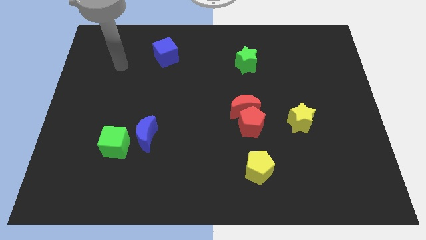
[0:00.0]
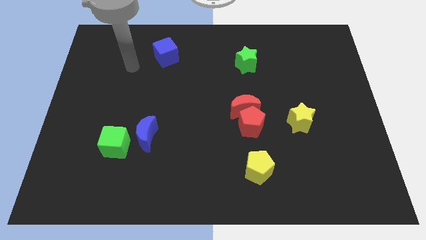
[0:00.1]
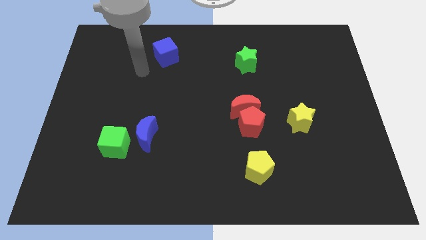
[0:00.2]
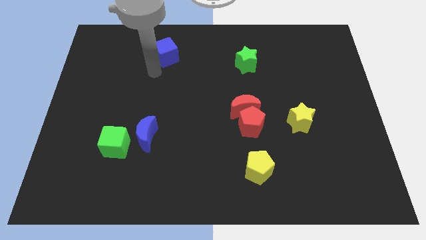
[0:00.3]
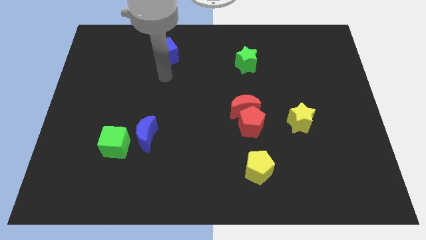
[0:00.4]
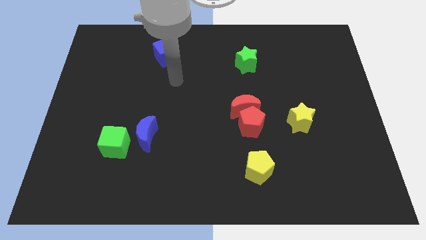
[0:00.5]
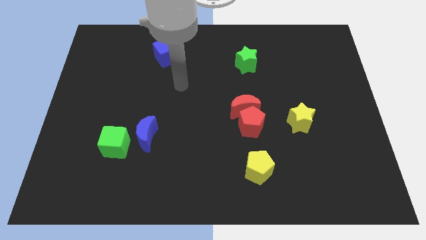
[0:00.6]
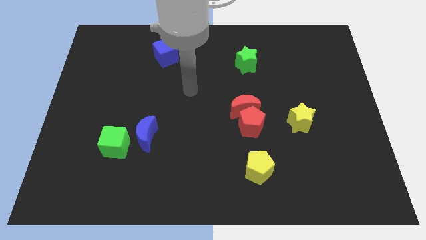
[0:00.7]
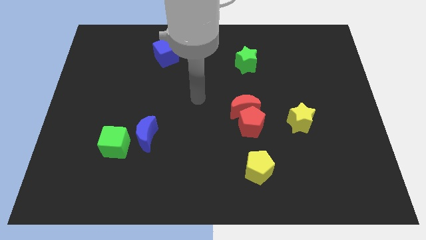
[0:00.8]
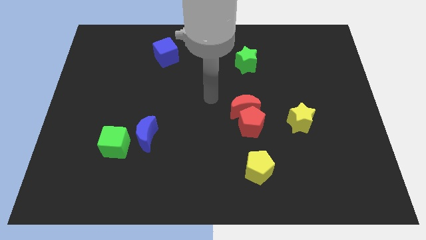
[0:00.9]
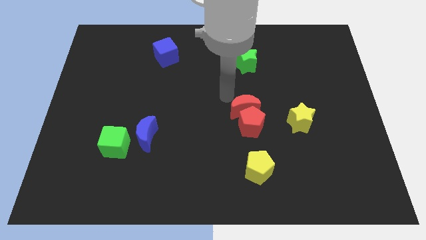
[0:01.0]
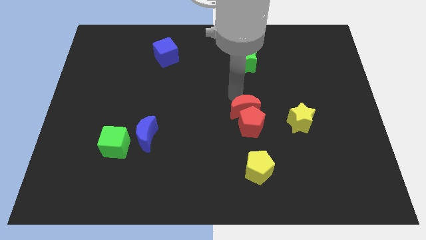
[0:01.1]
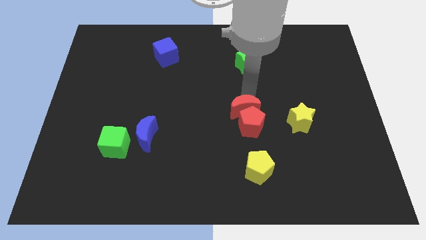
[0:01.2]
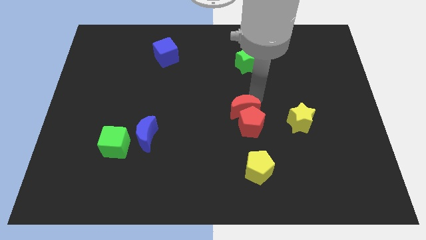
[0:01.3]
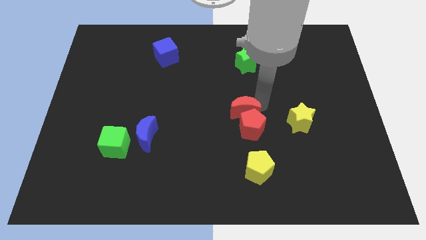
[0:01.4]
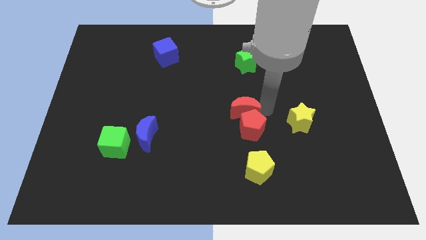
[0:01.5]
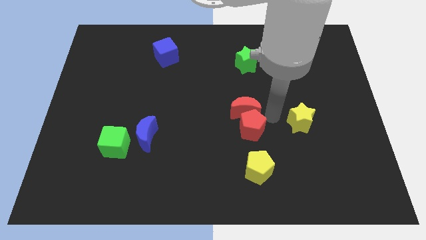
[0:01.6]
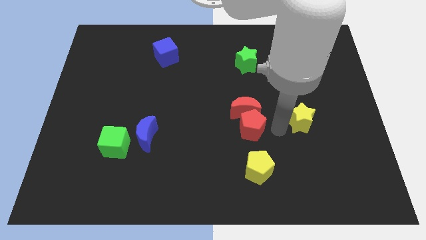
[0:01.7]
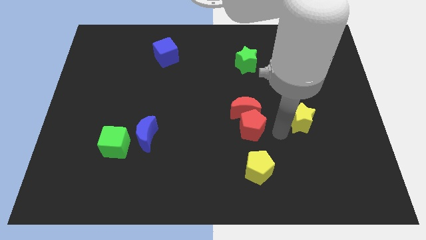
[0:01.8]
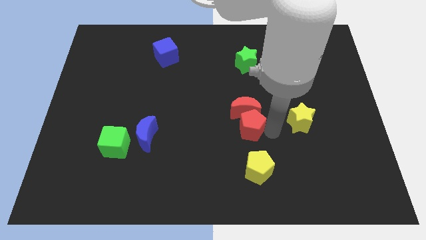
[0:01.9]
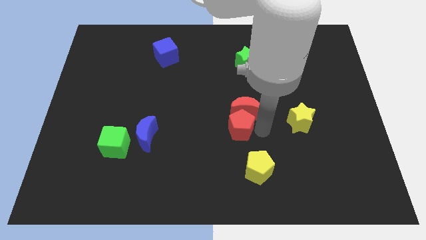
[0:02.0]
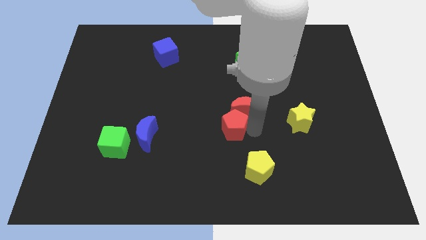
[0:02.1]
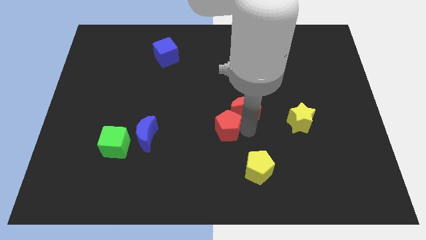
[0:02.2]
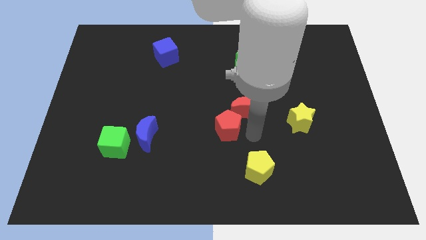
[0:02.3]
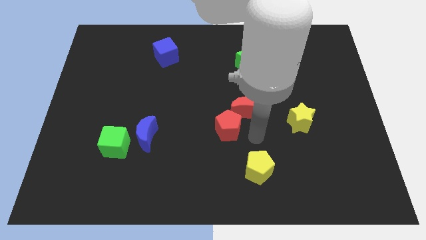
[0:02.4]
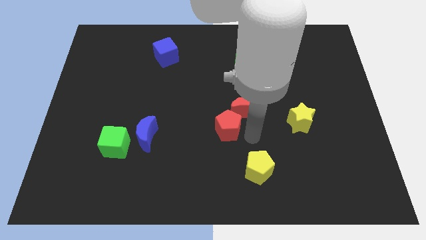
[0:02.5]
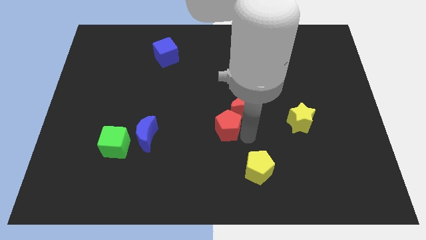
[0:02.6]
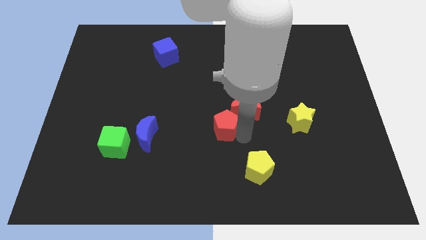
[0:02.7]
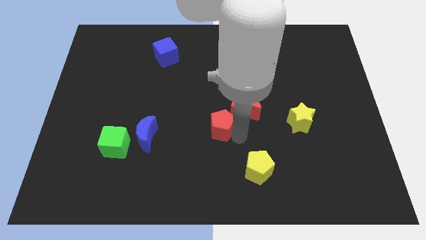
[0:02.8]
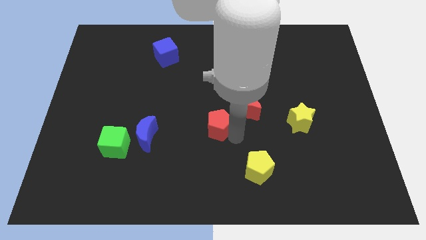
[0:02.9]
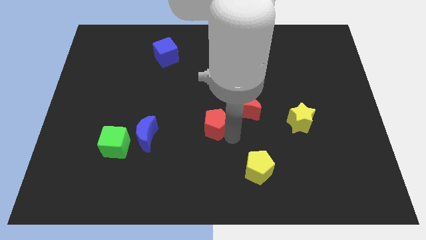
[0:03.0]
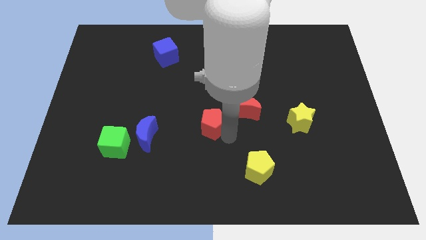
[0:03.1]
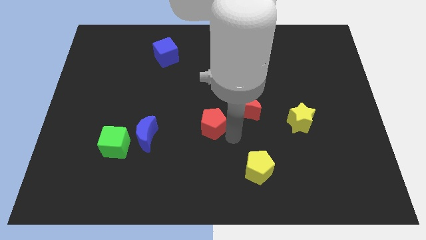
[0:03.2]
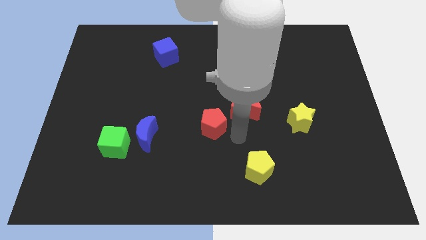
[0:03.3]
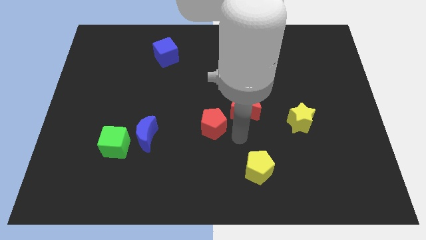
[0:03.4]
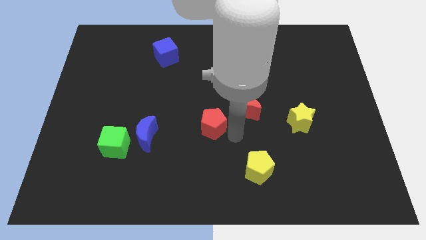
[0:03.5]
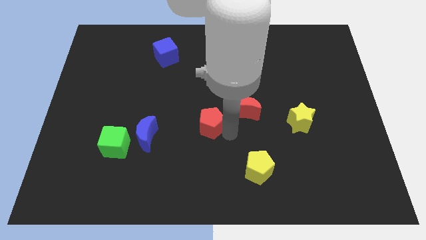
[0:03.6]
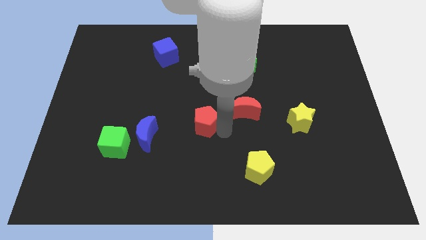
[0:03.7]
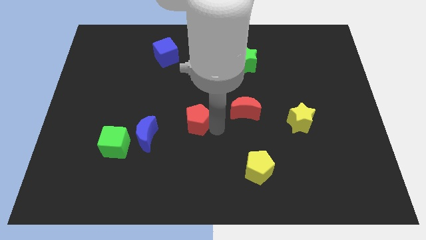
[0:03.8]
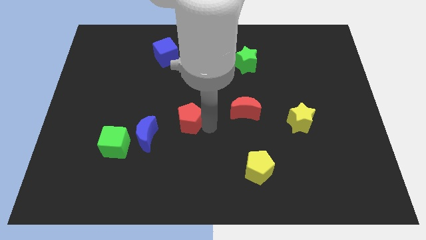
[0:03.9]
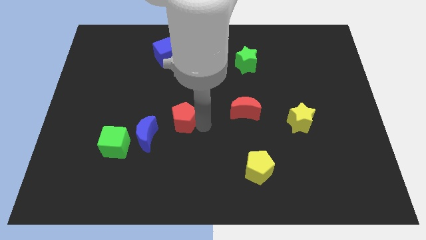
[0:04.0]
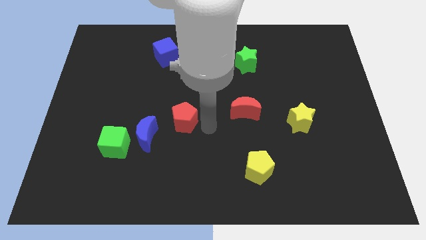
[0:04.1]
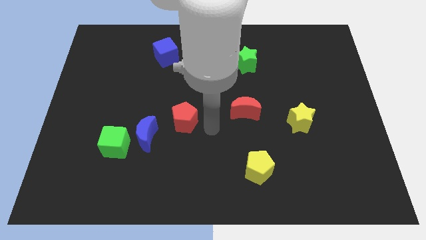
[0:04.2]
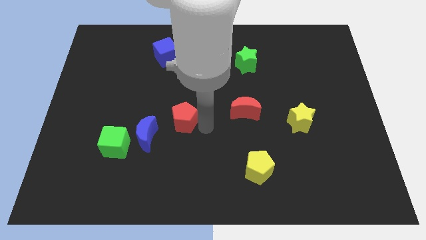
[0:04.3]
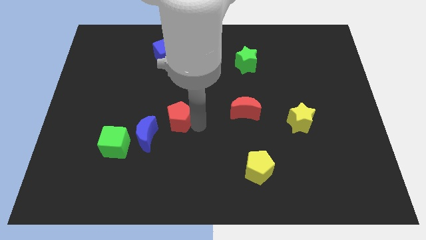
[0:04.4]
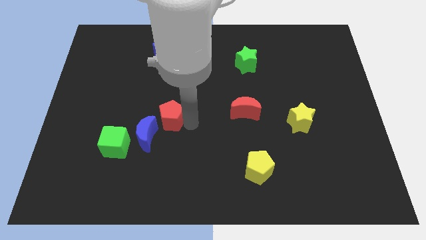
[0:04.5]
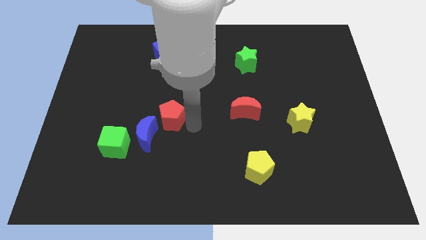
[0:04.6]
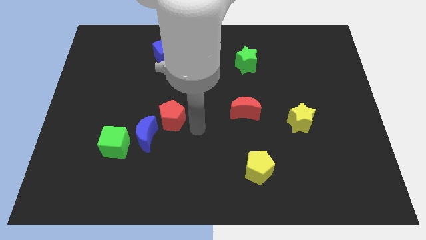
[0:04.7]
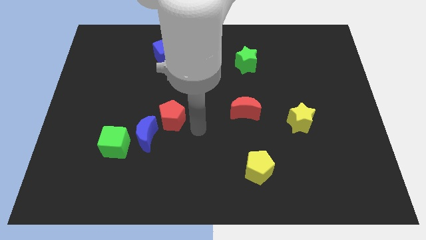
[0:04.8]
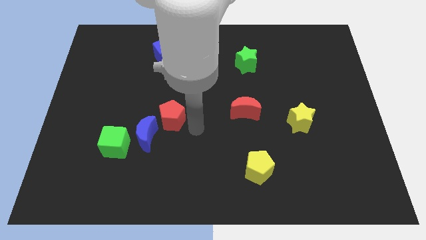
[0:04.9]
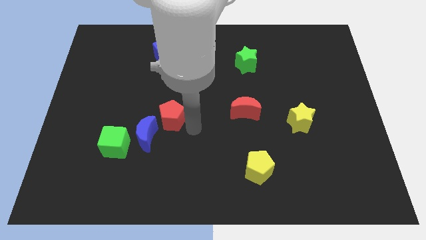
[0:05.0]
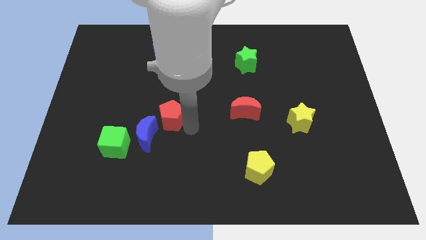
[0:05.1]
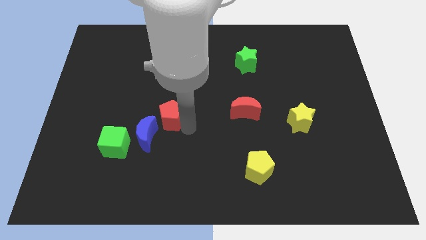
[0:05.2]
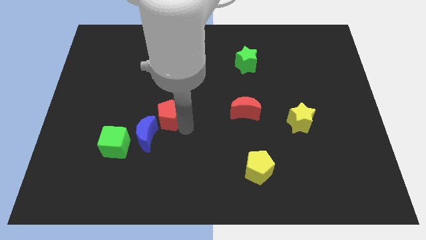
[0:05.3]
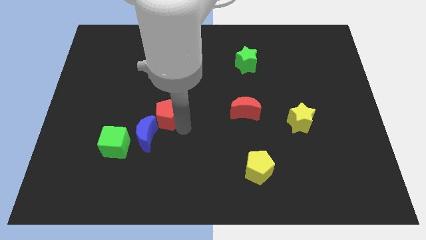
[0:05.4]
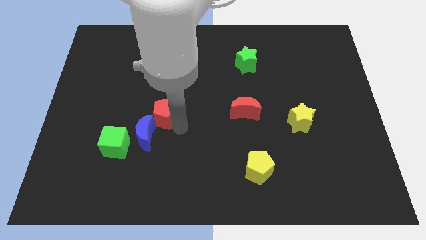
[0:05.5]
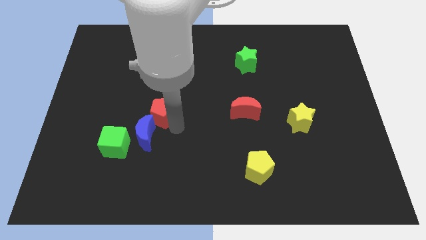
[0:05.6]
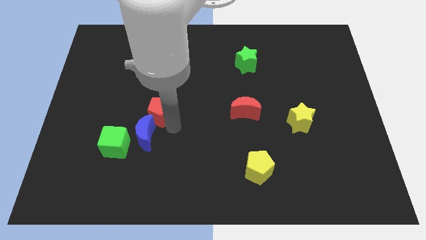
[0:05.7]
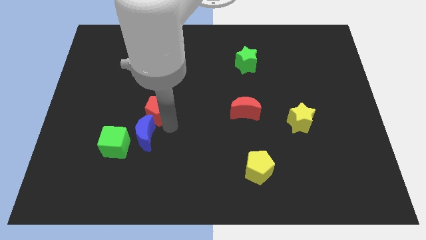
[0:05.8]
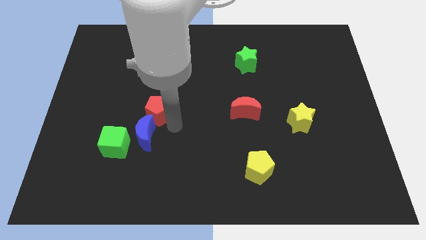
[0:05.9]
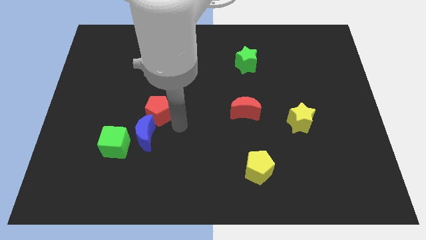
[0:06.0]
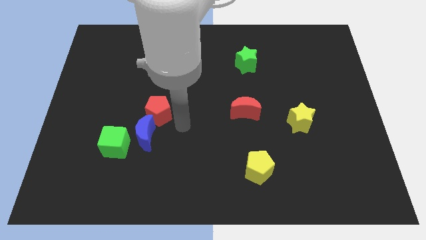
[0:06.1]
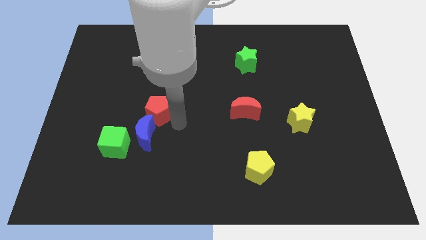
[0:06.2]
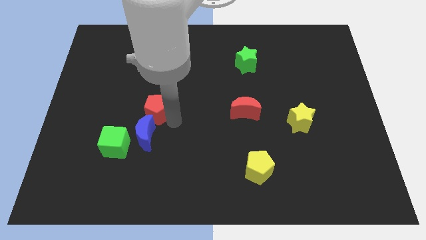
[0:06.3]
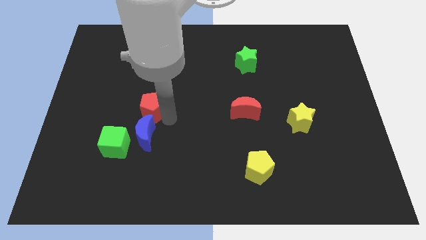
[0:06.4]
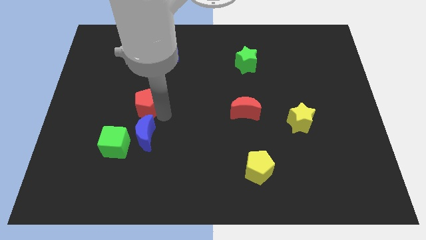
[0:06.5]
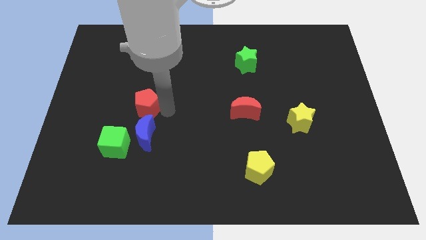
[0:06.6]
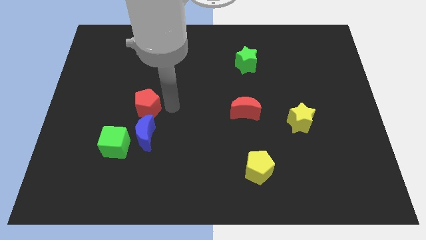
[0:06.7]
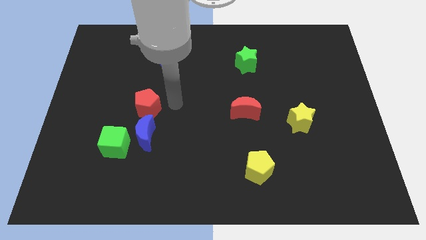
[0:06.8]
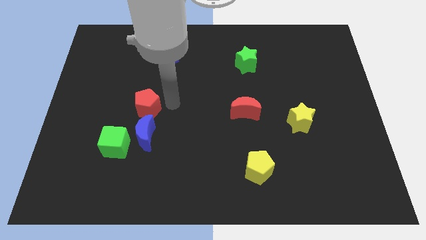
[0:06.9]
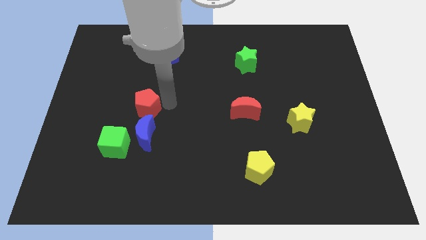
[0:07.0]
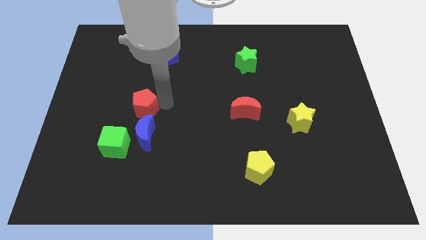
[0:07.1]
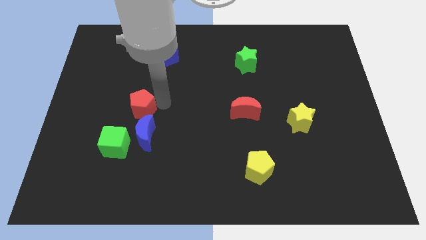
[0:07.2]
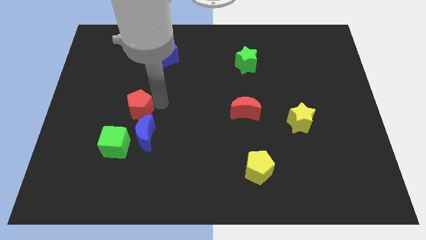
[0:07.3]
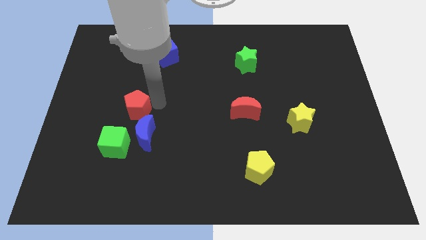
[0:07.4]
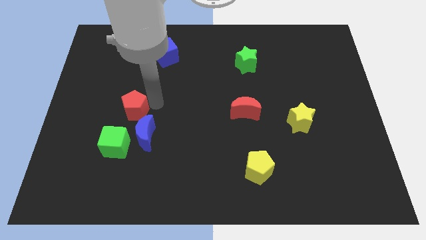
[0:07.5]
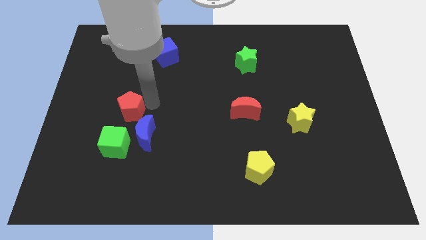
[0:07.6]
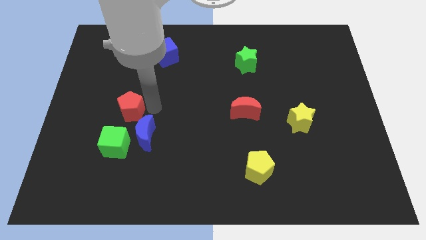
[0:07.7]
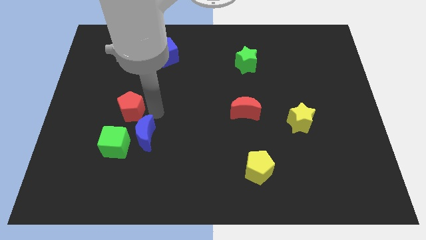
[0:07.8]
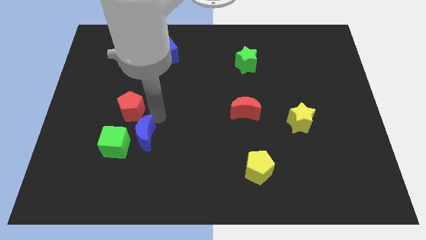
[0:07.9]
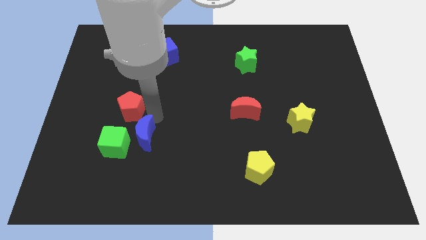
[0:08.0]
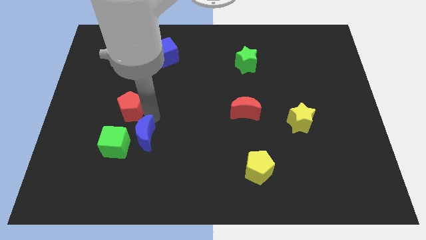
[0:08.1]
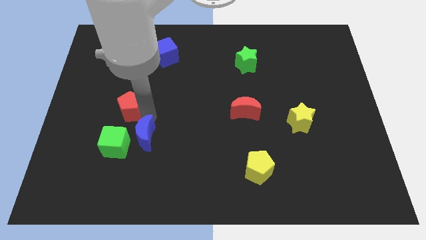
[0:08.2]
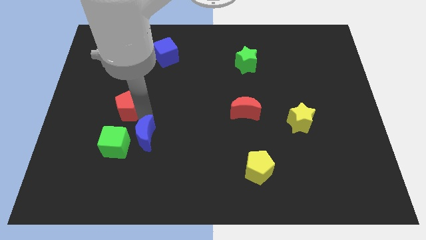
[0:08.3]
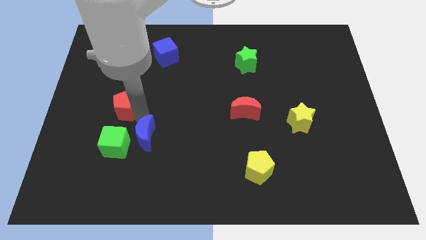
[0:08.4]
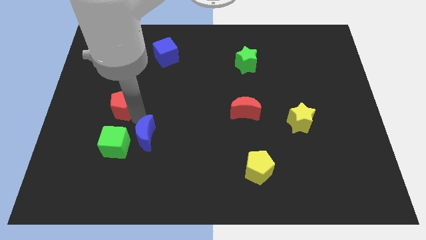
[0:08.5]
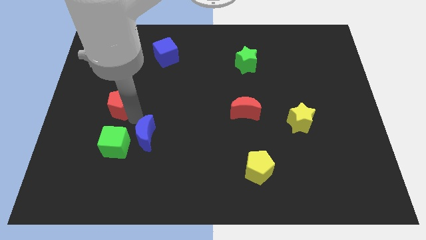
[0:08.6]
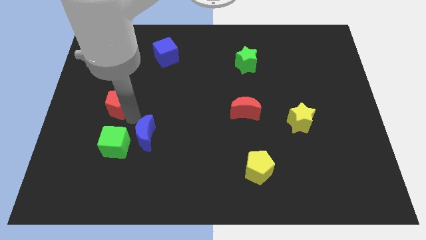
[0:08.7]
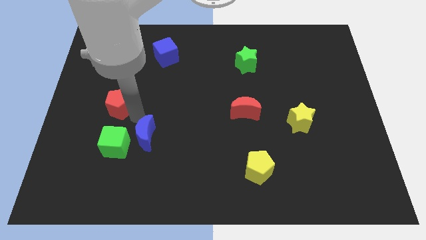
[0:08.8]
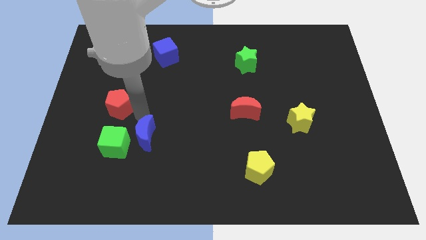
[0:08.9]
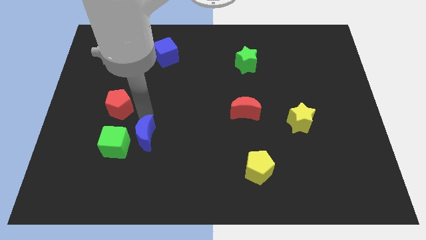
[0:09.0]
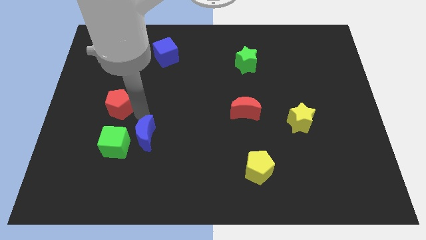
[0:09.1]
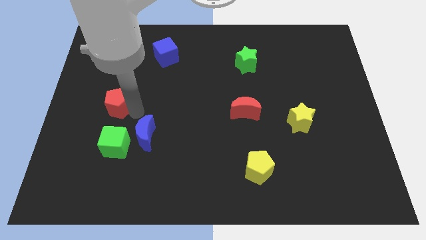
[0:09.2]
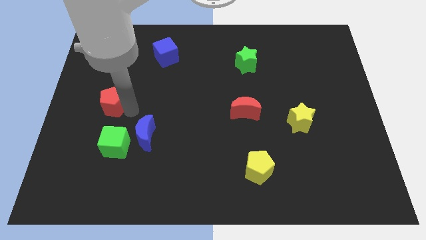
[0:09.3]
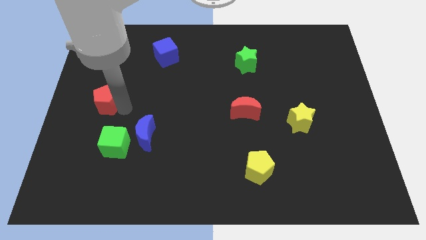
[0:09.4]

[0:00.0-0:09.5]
slide the red pentagon to the center left
